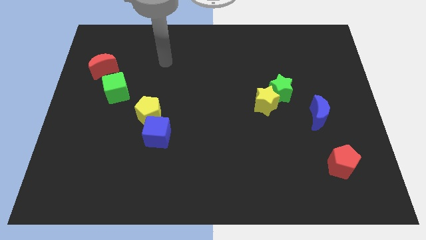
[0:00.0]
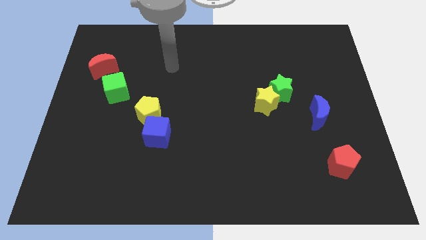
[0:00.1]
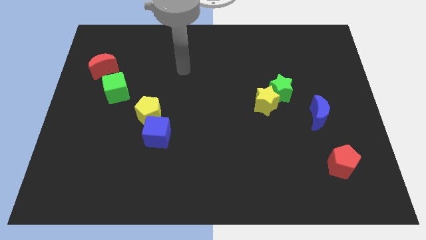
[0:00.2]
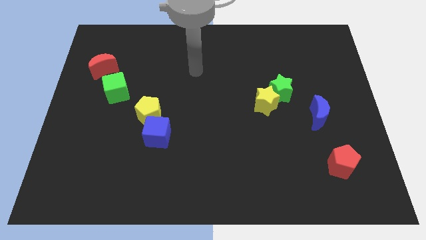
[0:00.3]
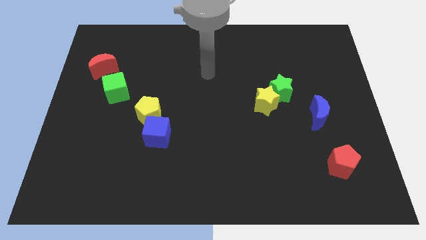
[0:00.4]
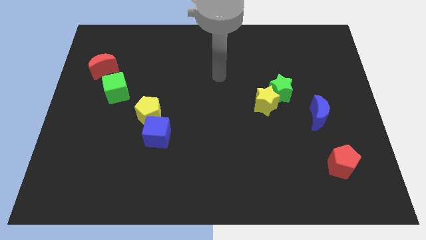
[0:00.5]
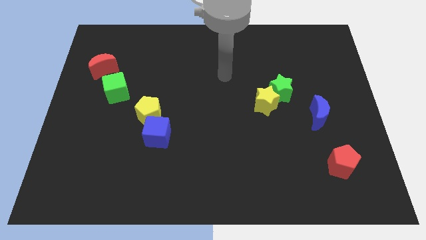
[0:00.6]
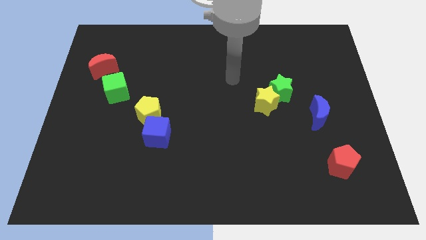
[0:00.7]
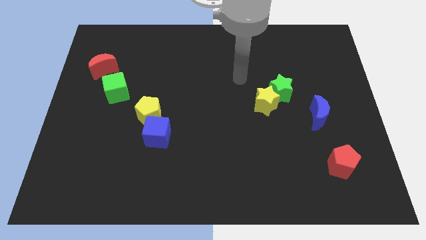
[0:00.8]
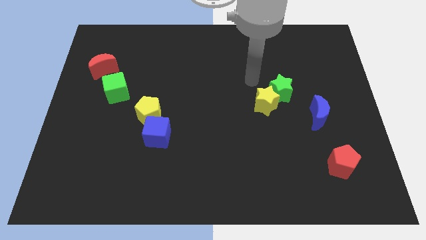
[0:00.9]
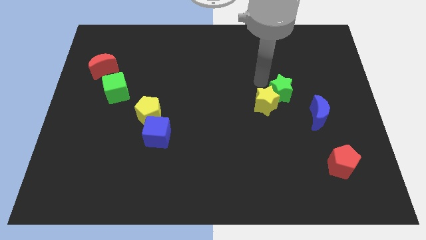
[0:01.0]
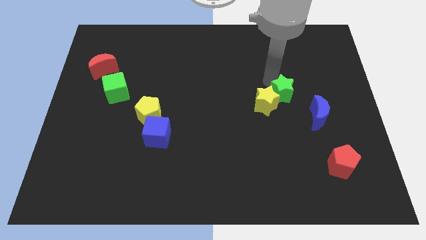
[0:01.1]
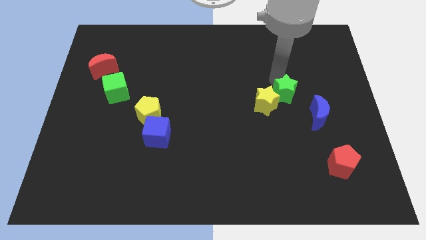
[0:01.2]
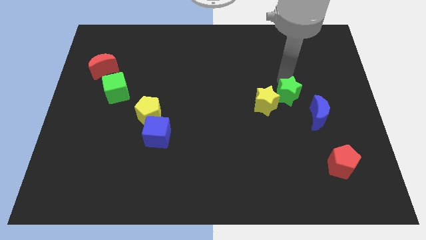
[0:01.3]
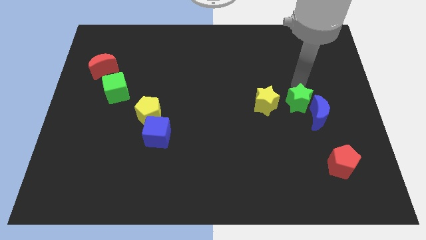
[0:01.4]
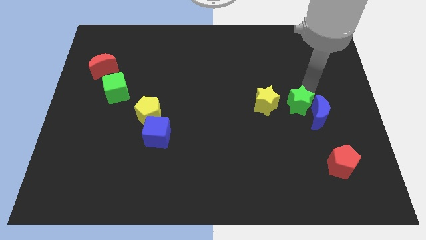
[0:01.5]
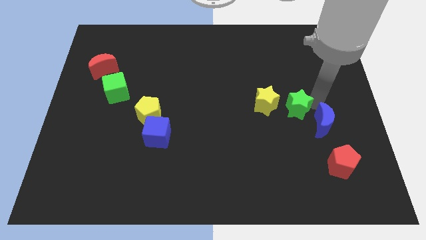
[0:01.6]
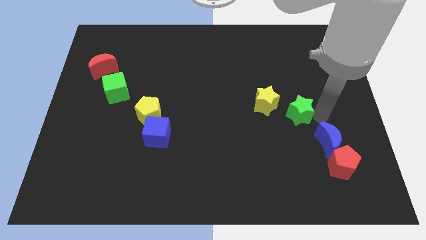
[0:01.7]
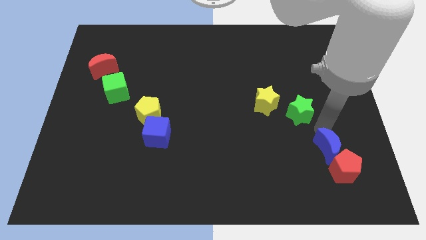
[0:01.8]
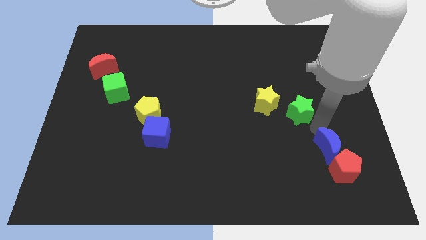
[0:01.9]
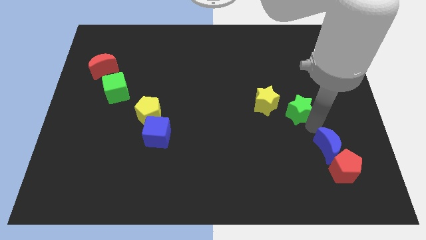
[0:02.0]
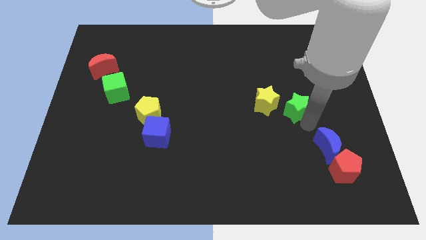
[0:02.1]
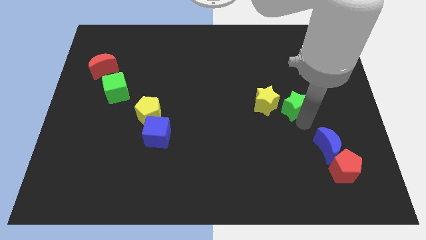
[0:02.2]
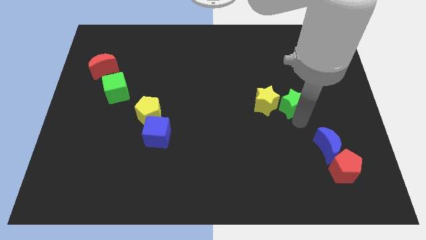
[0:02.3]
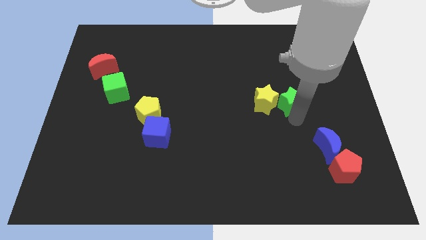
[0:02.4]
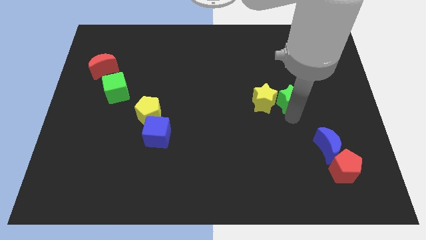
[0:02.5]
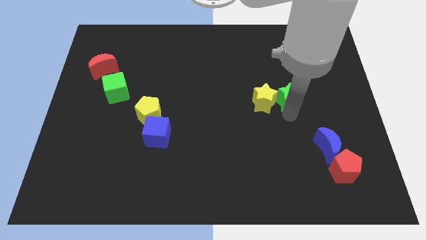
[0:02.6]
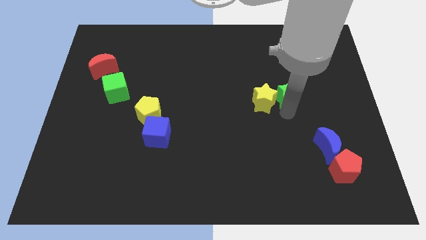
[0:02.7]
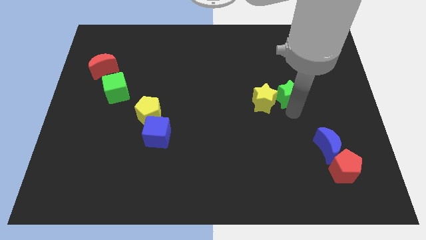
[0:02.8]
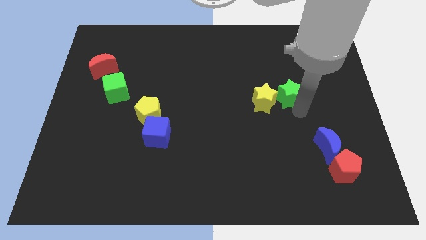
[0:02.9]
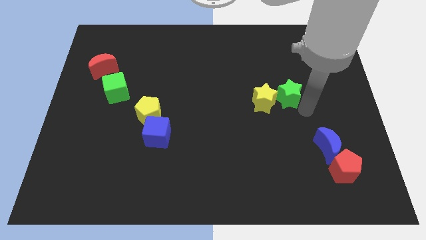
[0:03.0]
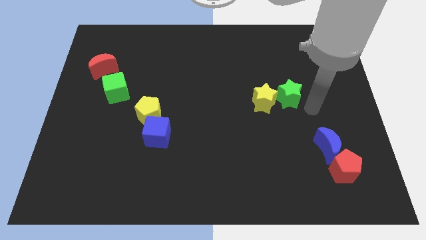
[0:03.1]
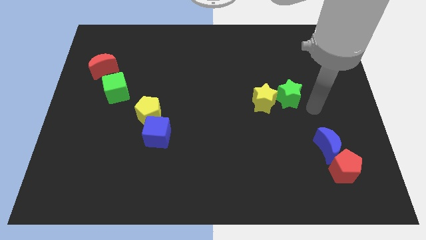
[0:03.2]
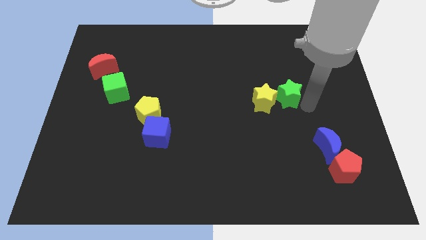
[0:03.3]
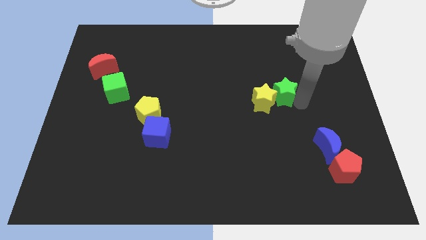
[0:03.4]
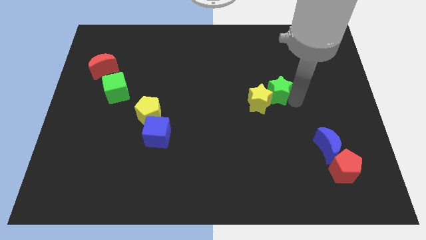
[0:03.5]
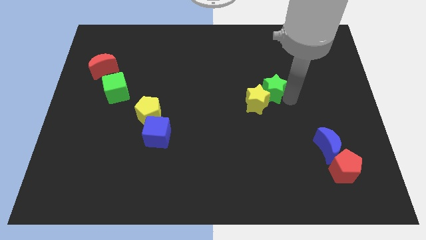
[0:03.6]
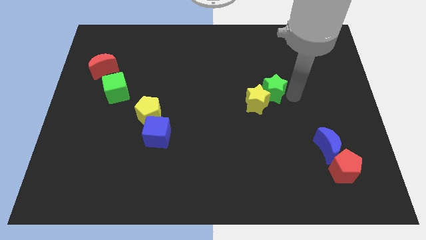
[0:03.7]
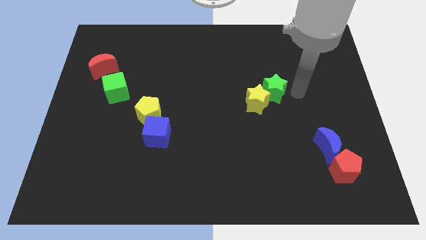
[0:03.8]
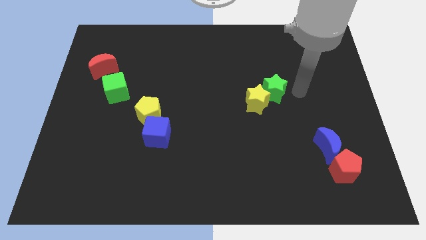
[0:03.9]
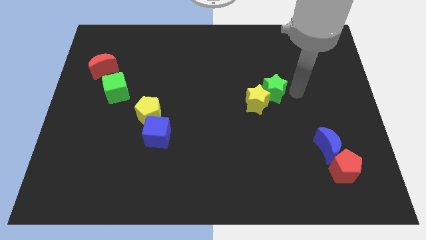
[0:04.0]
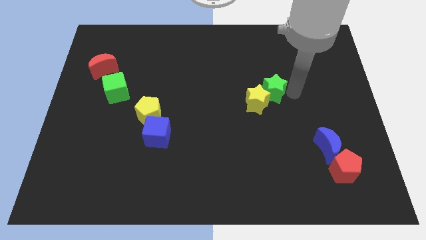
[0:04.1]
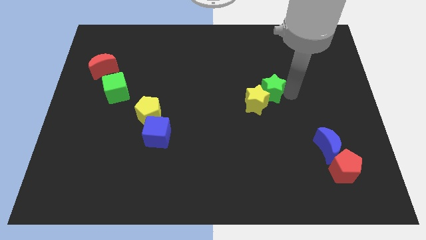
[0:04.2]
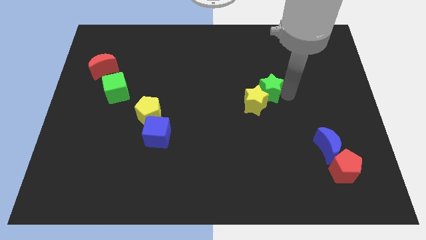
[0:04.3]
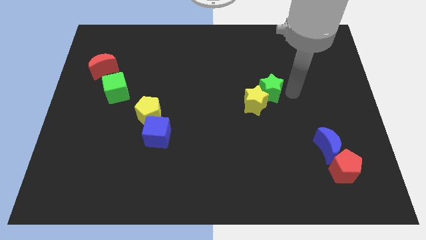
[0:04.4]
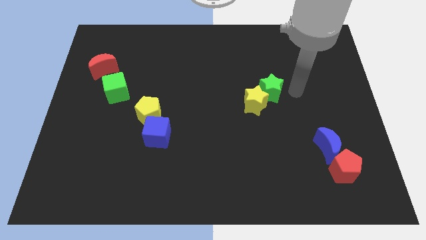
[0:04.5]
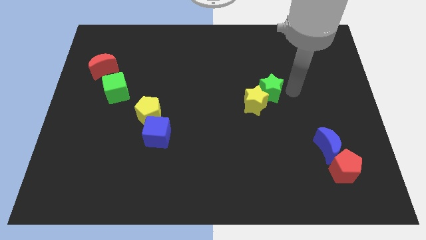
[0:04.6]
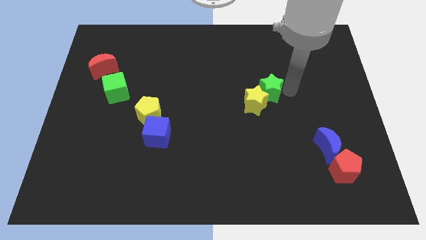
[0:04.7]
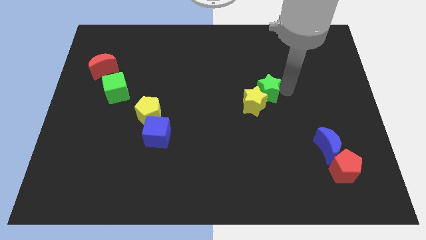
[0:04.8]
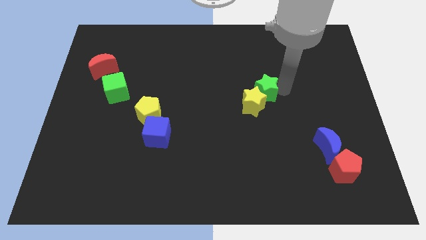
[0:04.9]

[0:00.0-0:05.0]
move the green star to the middle of the board

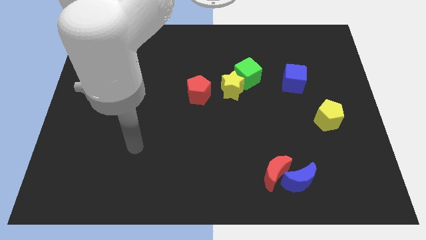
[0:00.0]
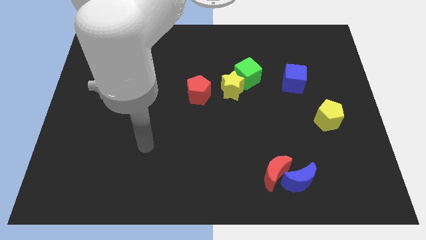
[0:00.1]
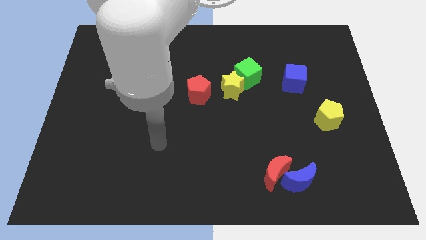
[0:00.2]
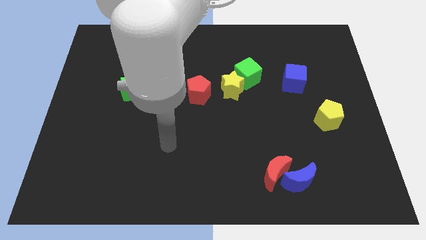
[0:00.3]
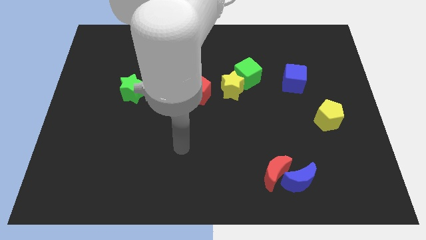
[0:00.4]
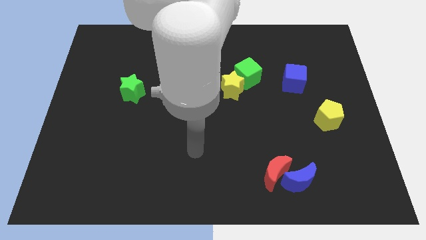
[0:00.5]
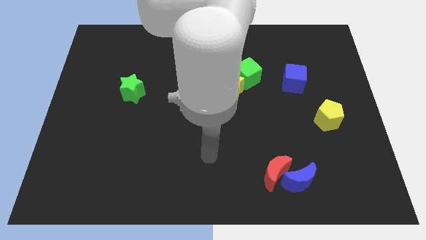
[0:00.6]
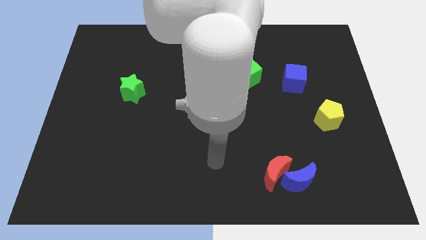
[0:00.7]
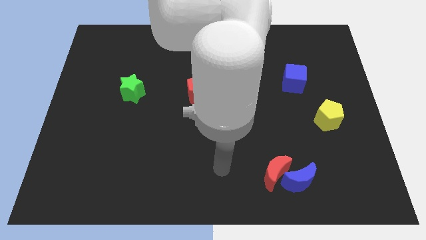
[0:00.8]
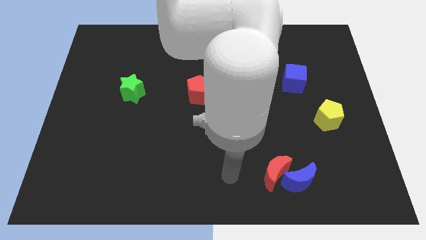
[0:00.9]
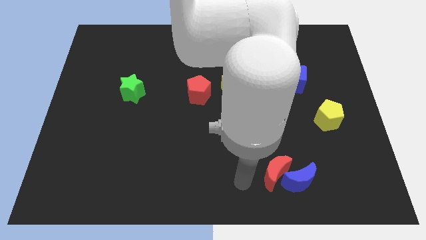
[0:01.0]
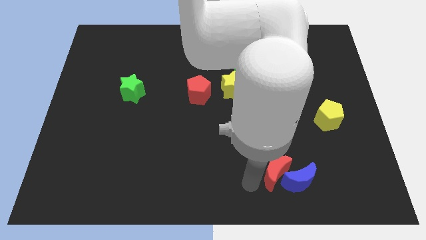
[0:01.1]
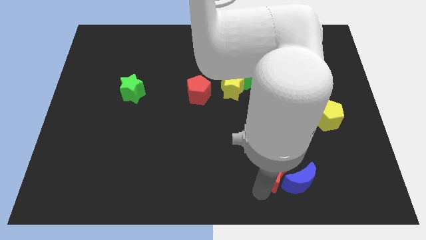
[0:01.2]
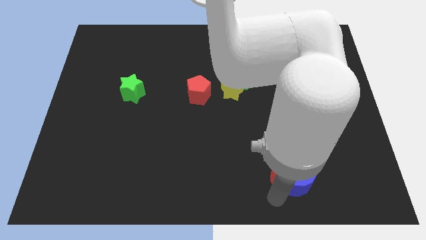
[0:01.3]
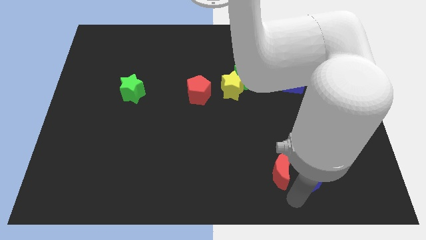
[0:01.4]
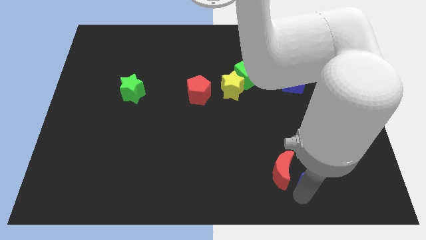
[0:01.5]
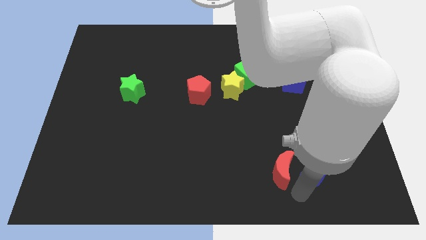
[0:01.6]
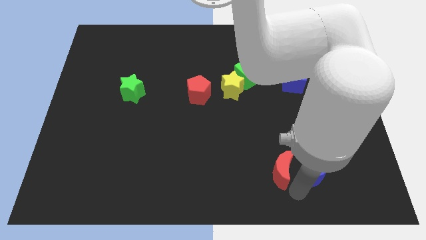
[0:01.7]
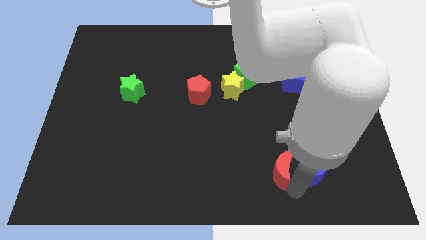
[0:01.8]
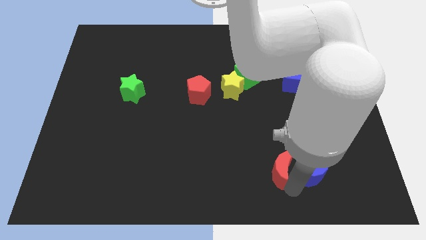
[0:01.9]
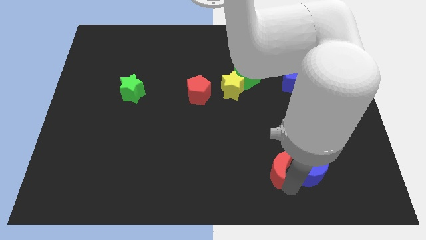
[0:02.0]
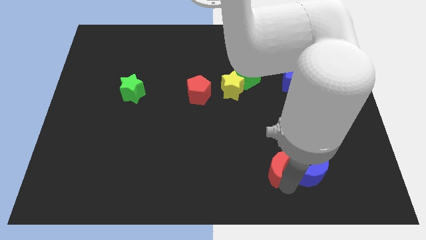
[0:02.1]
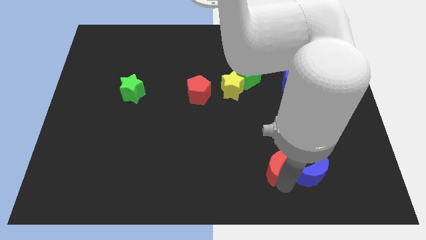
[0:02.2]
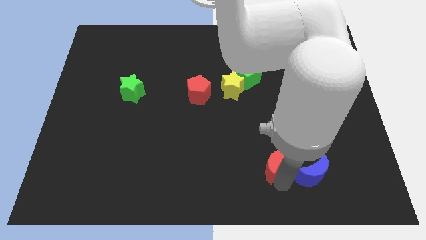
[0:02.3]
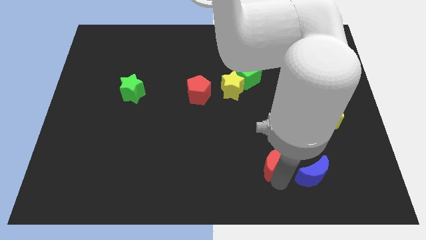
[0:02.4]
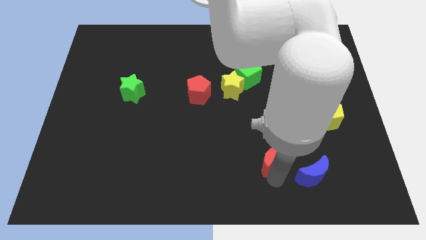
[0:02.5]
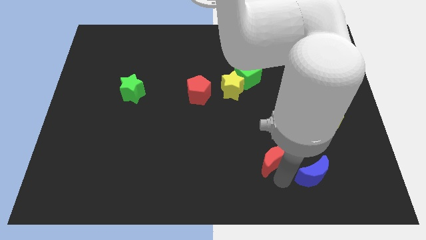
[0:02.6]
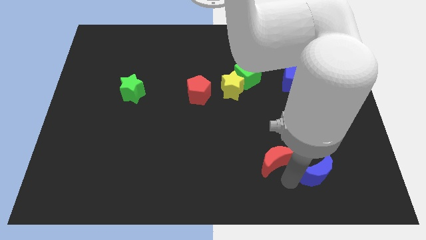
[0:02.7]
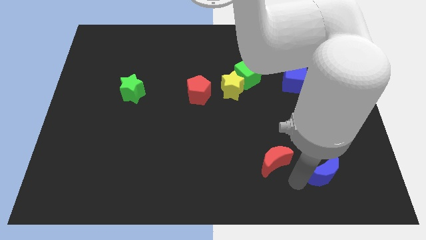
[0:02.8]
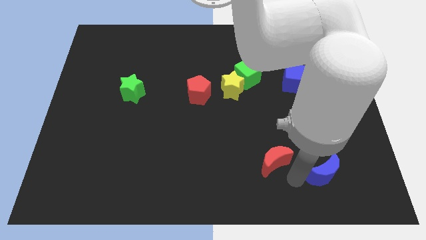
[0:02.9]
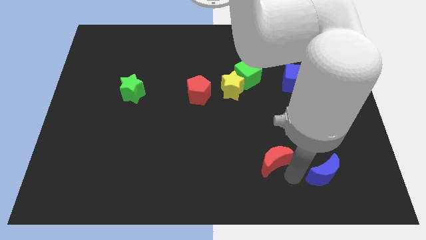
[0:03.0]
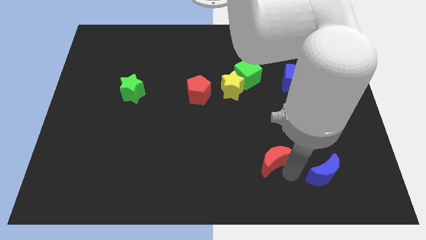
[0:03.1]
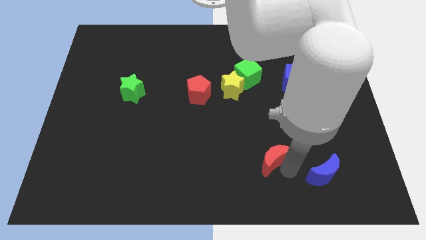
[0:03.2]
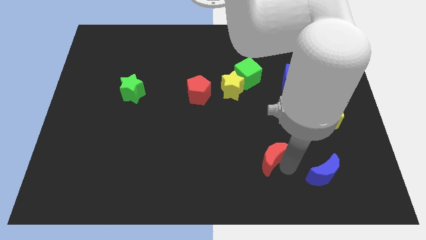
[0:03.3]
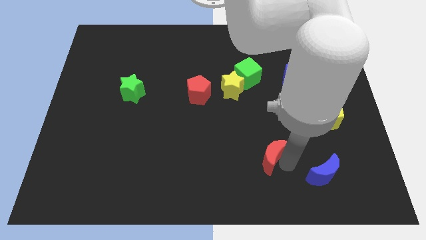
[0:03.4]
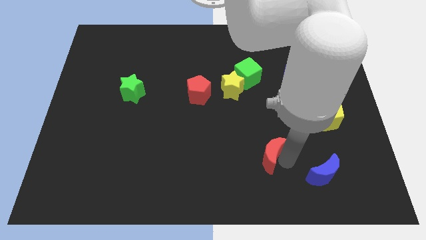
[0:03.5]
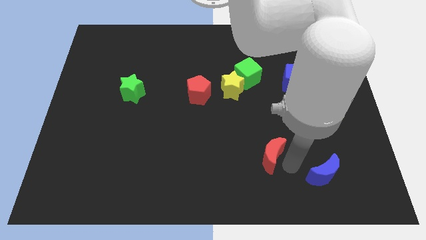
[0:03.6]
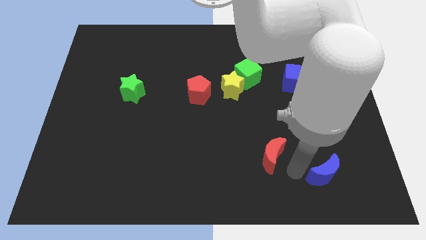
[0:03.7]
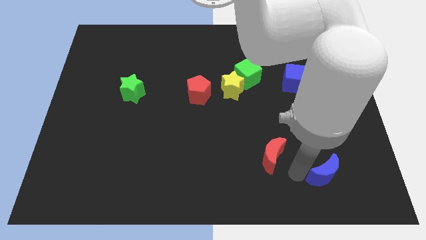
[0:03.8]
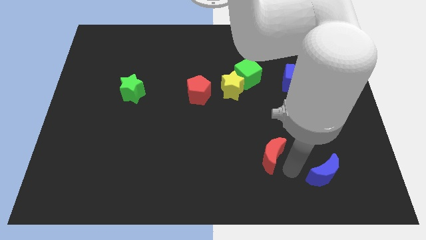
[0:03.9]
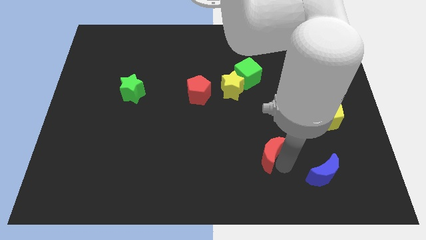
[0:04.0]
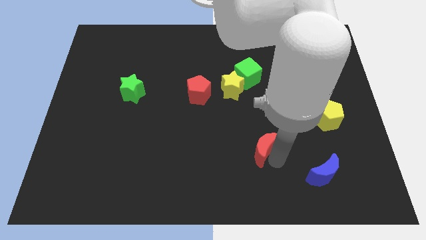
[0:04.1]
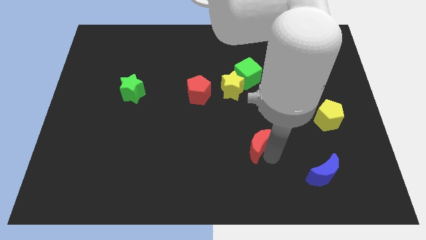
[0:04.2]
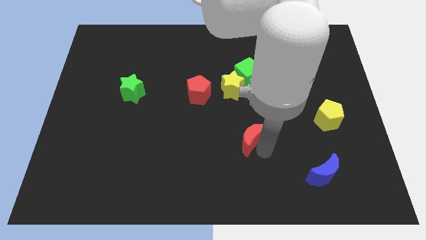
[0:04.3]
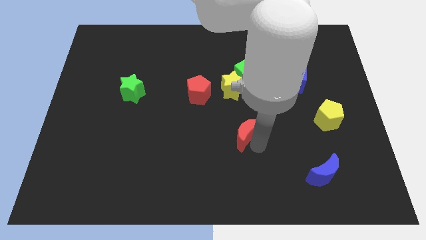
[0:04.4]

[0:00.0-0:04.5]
move the red moon to the middle
